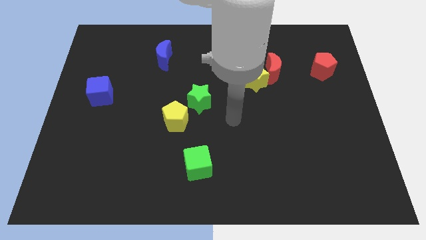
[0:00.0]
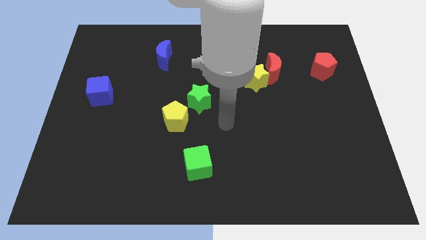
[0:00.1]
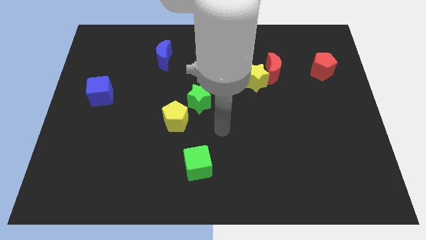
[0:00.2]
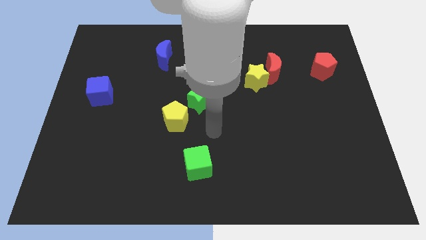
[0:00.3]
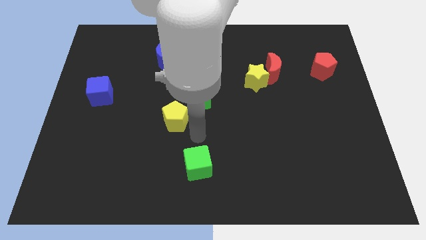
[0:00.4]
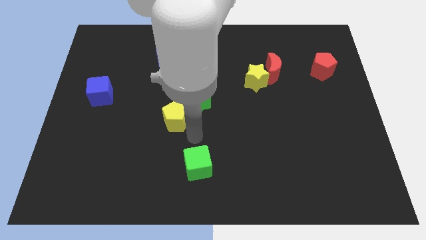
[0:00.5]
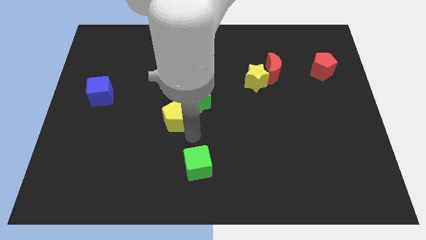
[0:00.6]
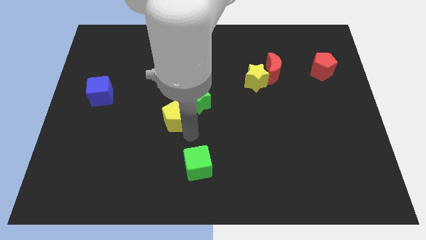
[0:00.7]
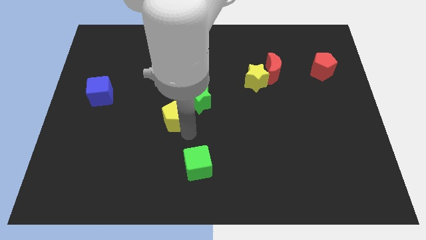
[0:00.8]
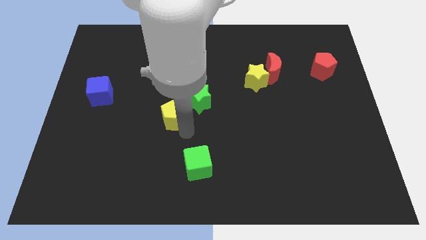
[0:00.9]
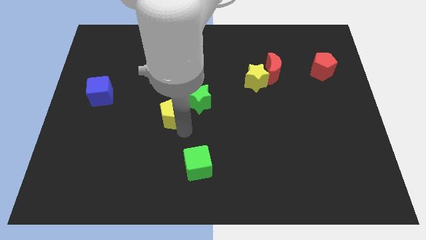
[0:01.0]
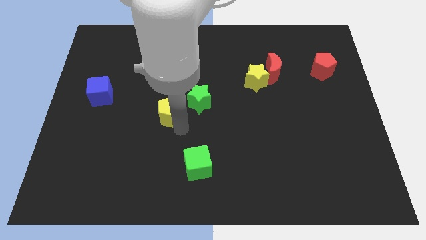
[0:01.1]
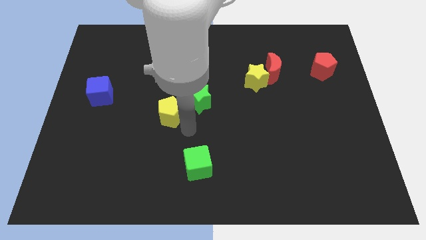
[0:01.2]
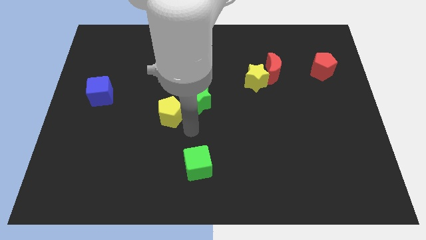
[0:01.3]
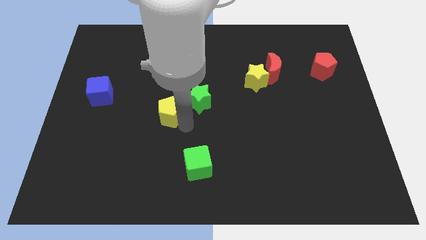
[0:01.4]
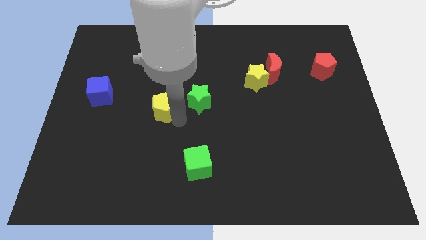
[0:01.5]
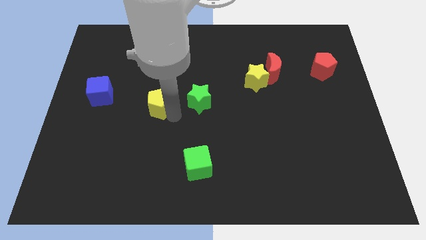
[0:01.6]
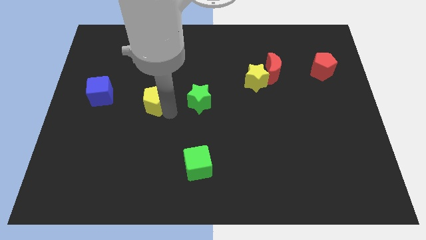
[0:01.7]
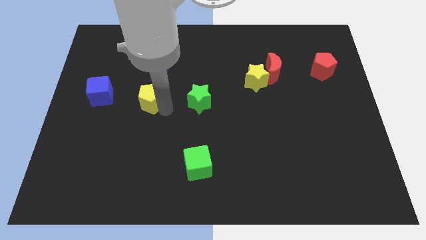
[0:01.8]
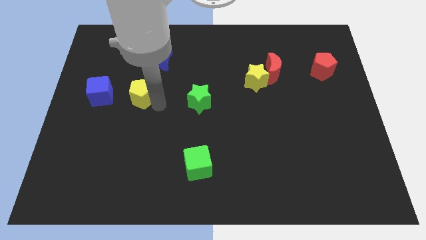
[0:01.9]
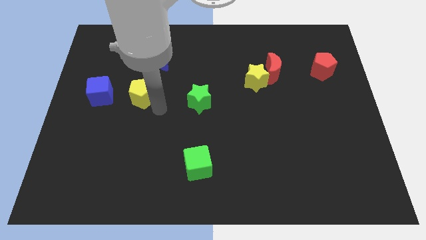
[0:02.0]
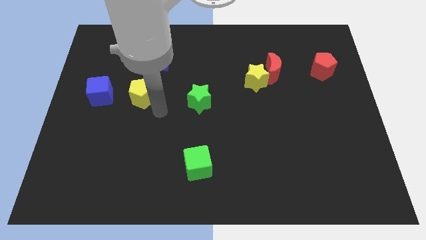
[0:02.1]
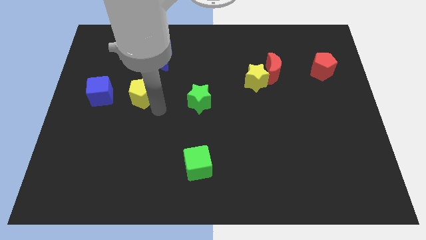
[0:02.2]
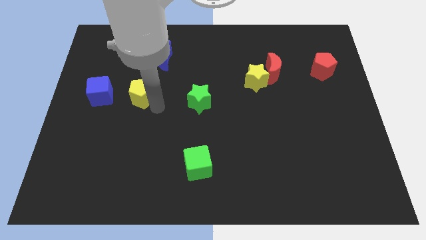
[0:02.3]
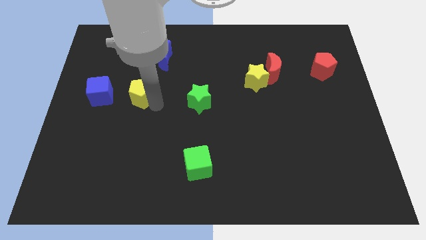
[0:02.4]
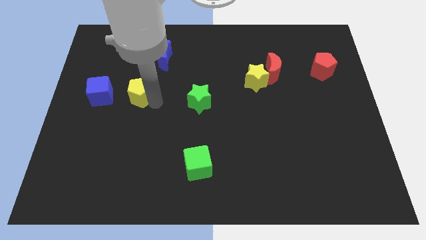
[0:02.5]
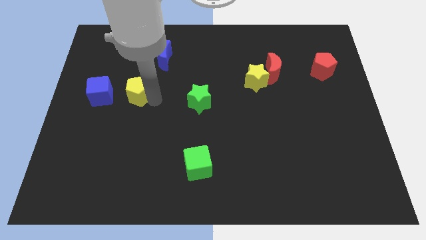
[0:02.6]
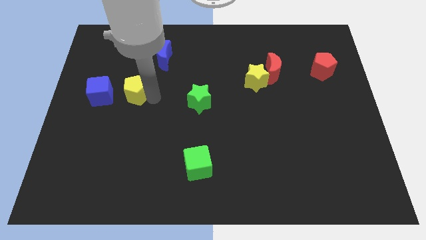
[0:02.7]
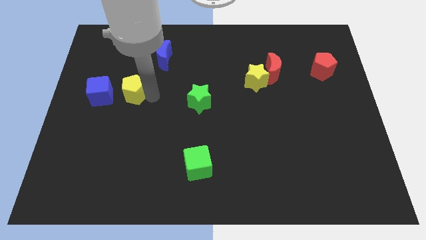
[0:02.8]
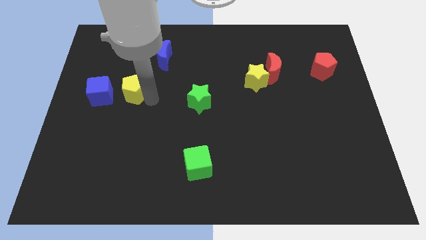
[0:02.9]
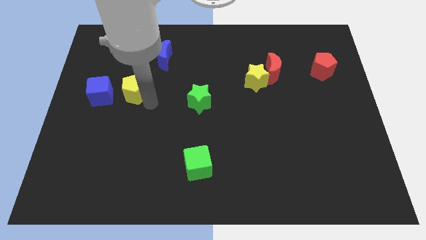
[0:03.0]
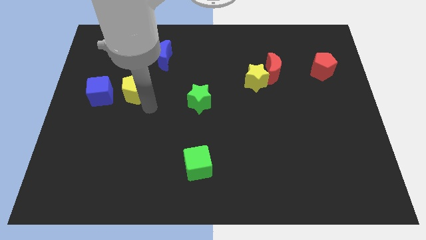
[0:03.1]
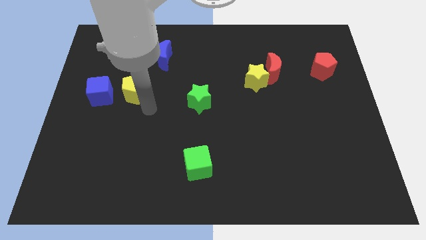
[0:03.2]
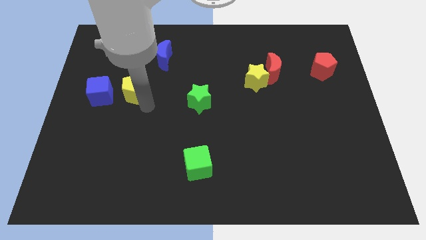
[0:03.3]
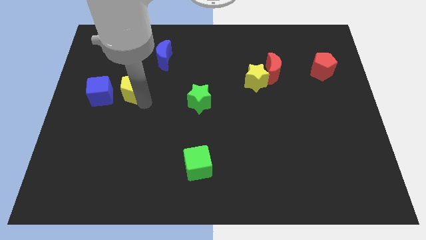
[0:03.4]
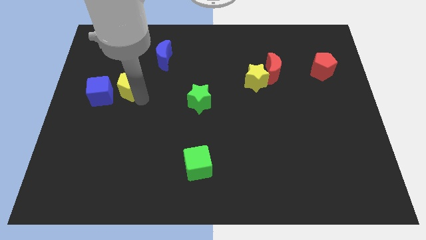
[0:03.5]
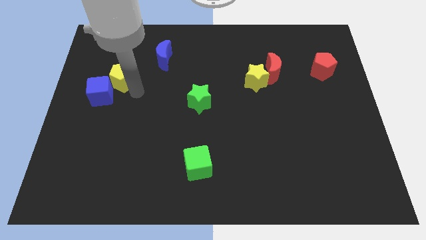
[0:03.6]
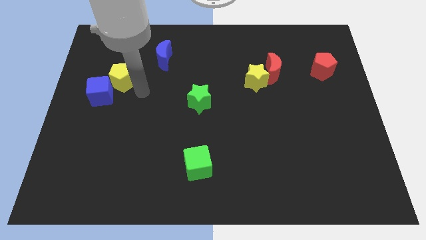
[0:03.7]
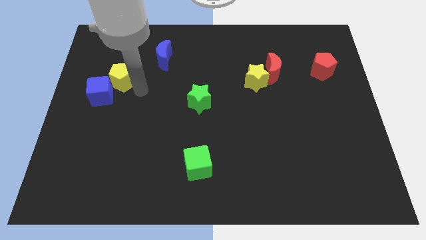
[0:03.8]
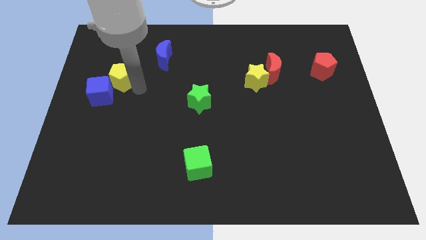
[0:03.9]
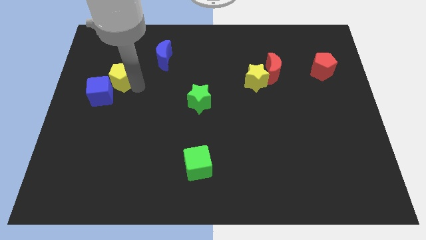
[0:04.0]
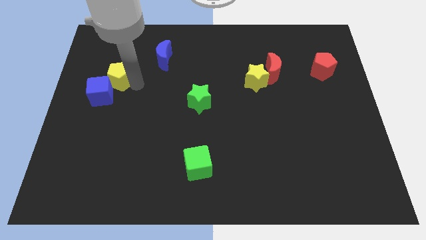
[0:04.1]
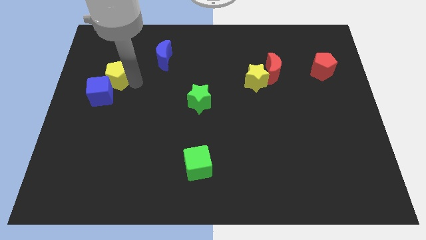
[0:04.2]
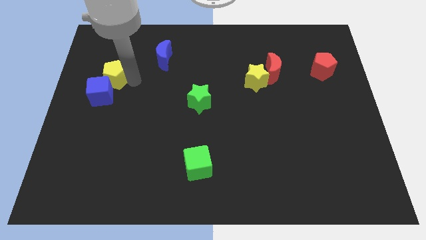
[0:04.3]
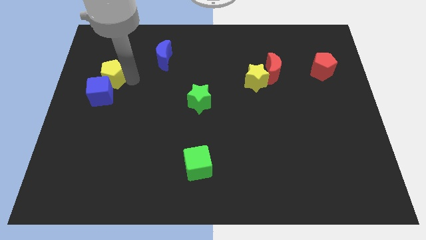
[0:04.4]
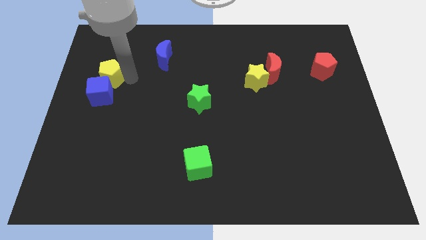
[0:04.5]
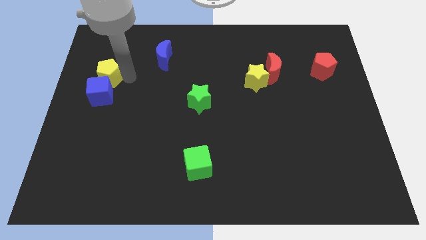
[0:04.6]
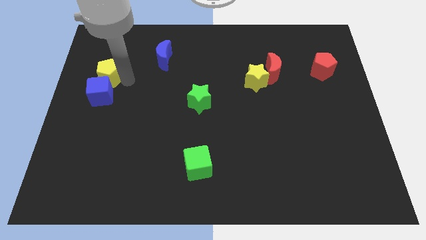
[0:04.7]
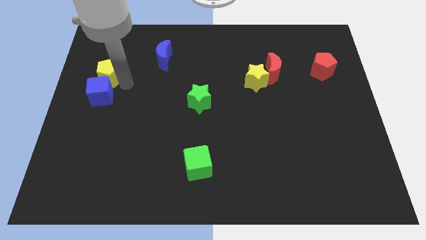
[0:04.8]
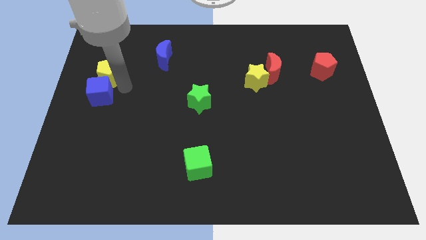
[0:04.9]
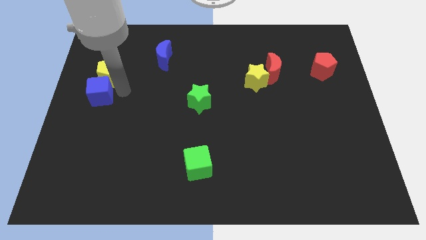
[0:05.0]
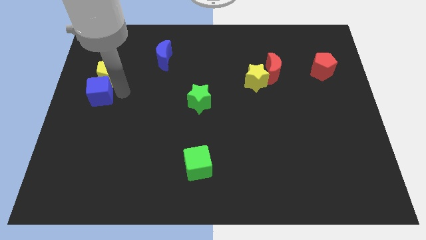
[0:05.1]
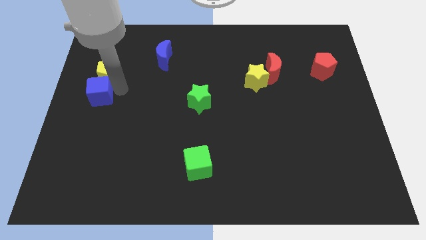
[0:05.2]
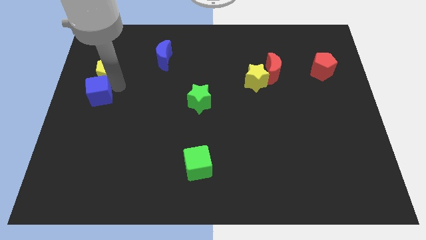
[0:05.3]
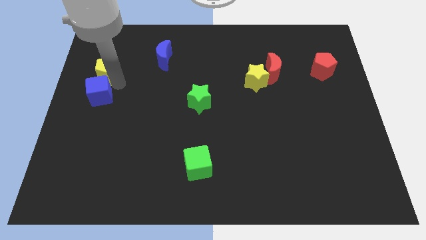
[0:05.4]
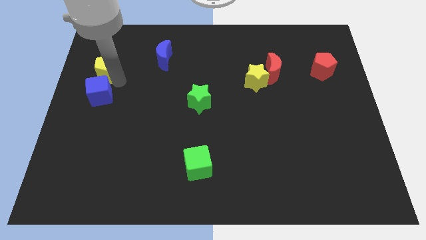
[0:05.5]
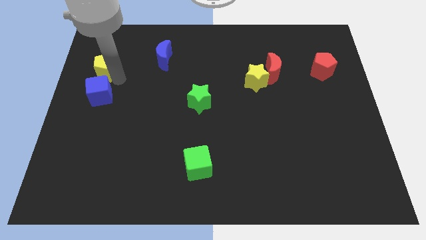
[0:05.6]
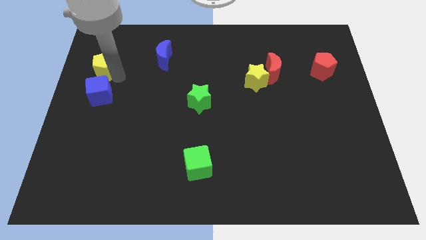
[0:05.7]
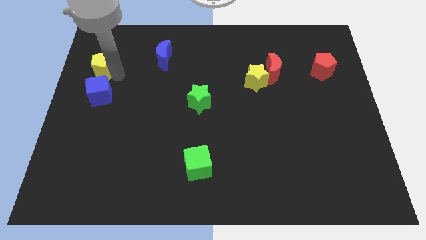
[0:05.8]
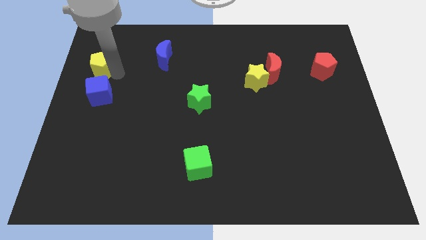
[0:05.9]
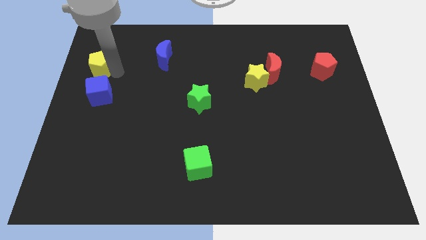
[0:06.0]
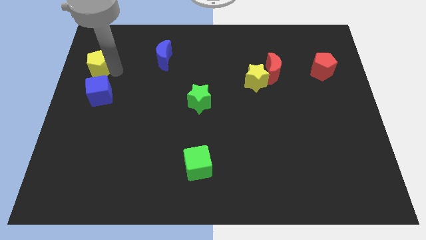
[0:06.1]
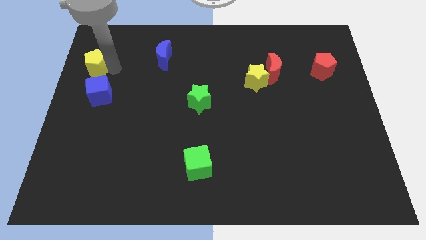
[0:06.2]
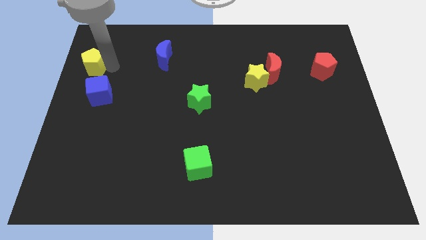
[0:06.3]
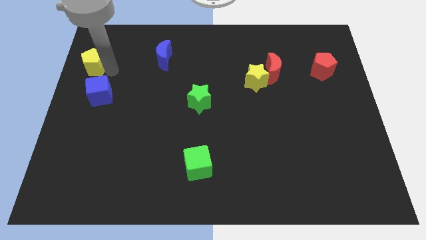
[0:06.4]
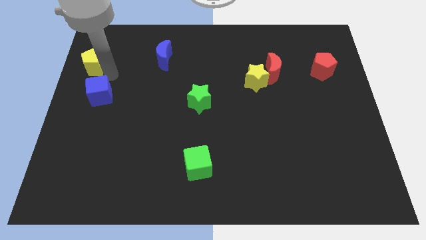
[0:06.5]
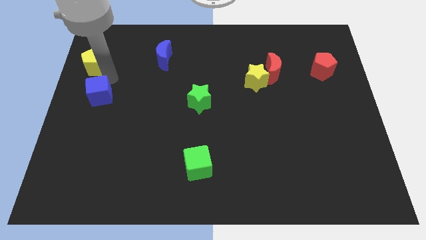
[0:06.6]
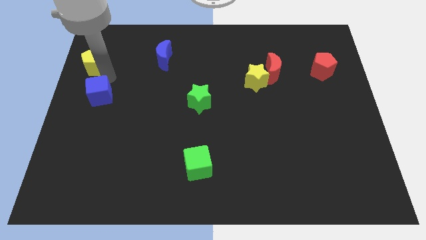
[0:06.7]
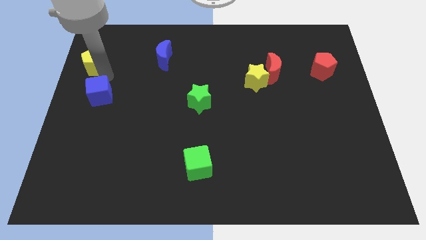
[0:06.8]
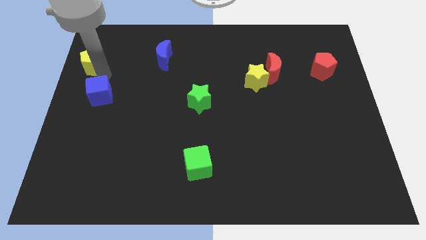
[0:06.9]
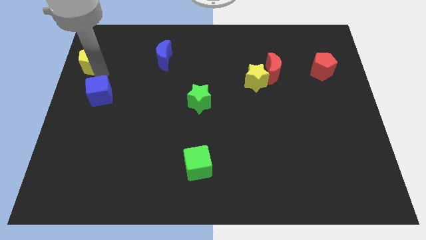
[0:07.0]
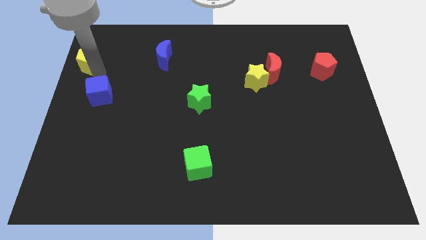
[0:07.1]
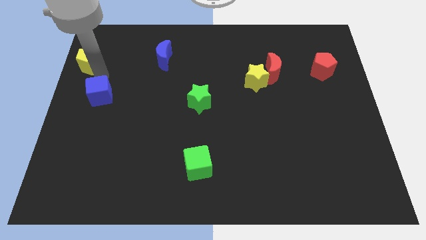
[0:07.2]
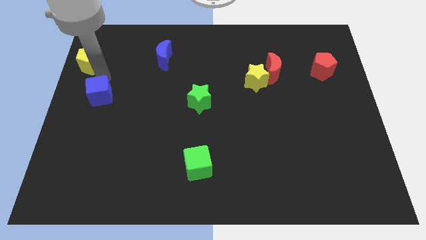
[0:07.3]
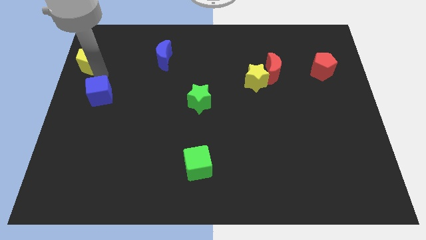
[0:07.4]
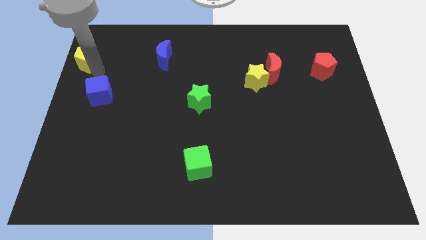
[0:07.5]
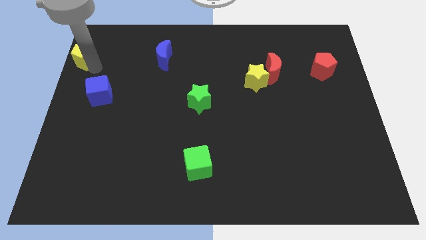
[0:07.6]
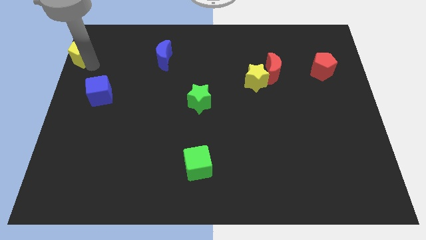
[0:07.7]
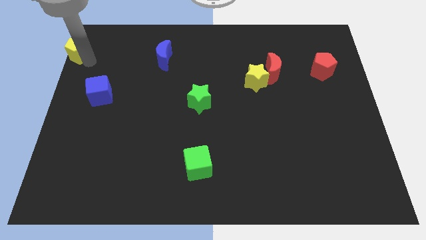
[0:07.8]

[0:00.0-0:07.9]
put the yellow pentagon to the top left
